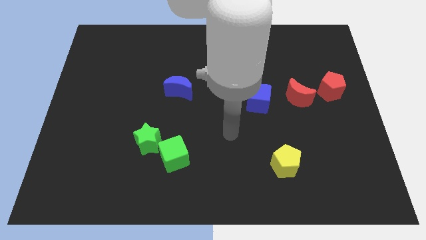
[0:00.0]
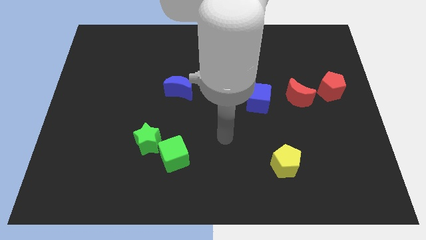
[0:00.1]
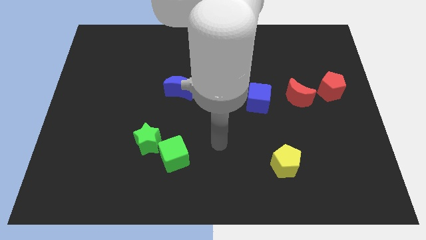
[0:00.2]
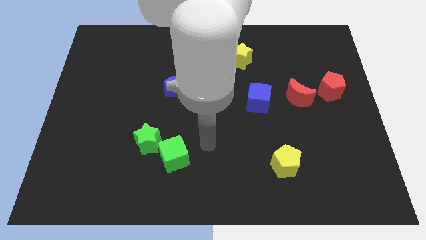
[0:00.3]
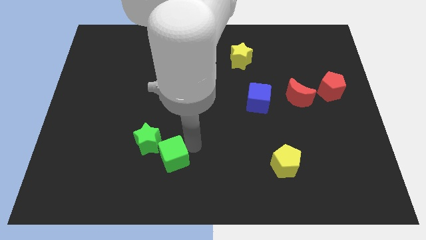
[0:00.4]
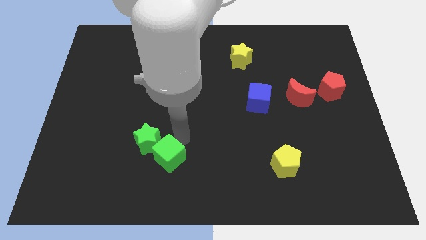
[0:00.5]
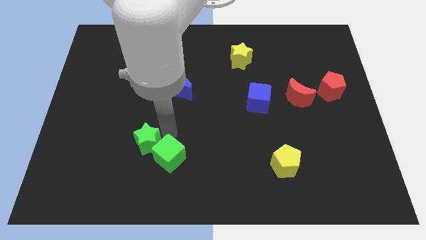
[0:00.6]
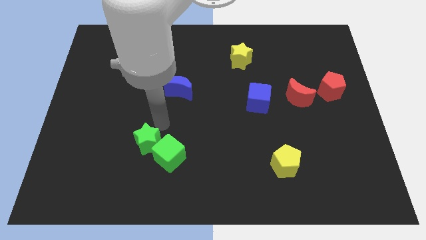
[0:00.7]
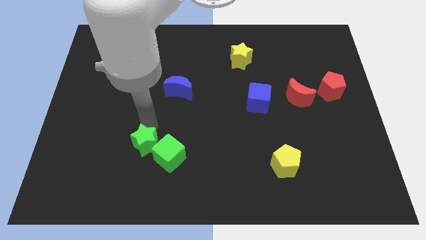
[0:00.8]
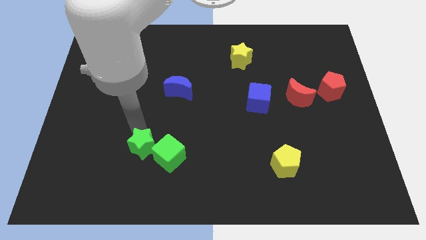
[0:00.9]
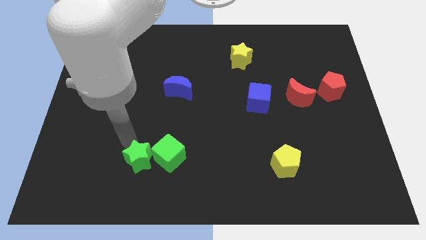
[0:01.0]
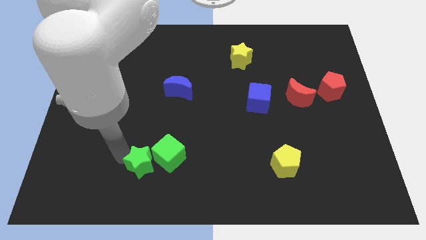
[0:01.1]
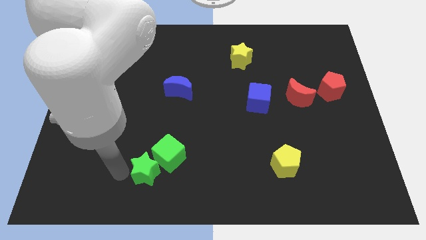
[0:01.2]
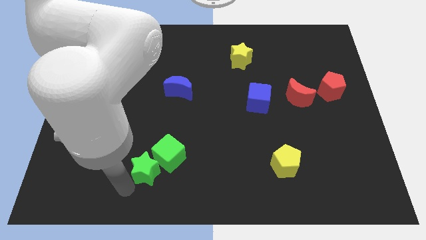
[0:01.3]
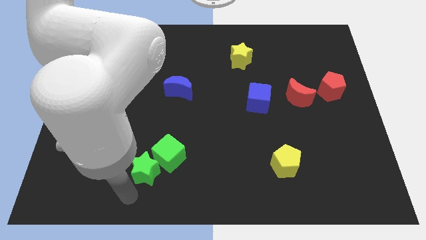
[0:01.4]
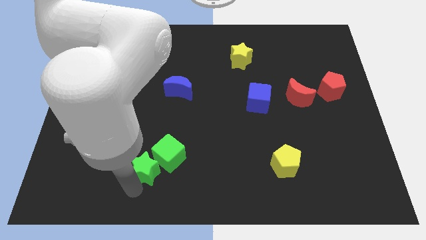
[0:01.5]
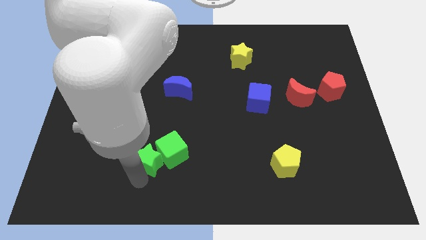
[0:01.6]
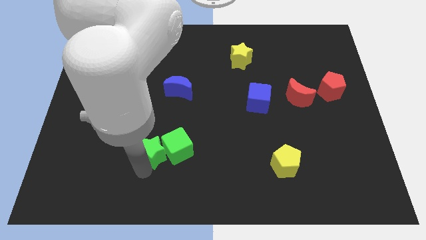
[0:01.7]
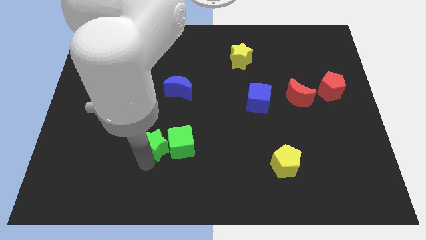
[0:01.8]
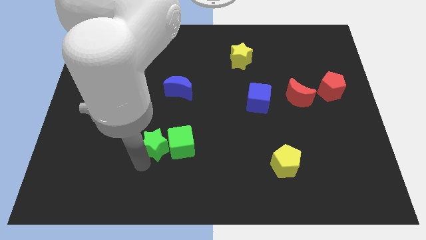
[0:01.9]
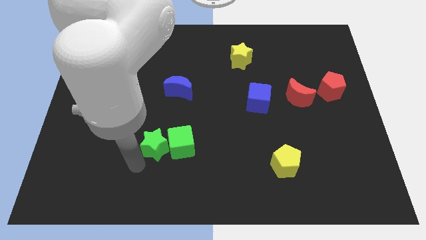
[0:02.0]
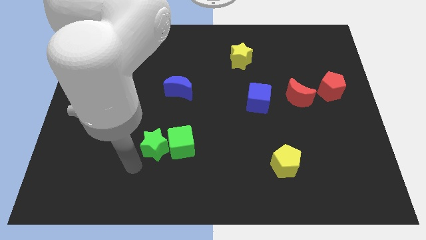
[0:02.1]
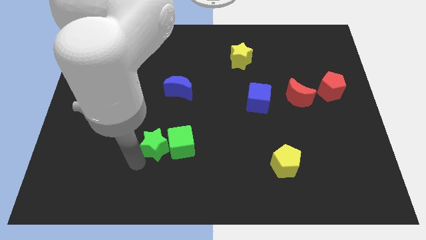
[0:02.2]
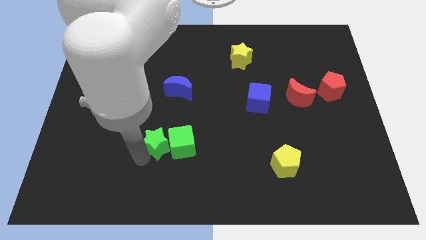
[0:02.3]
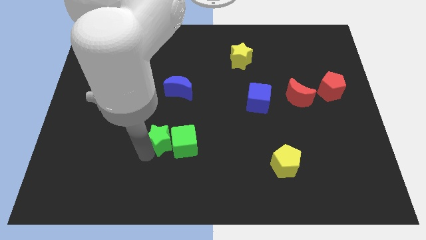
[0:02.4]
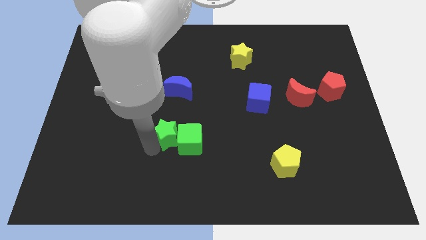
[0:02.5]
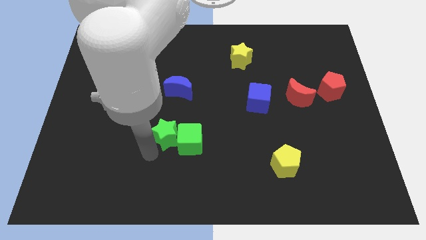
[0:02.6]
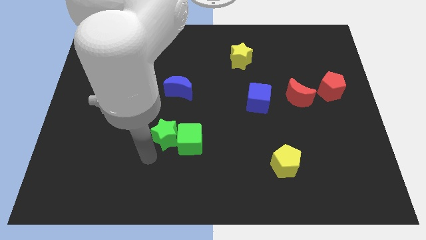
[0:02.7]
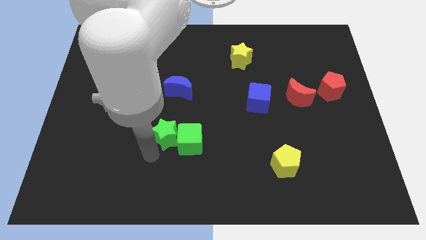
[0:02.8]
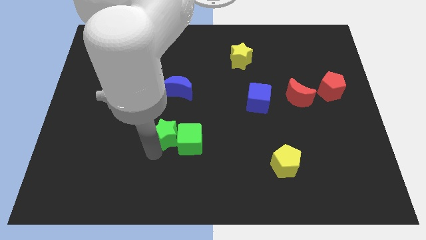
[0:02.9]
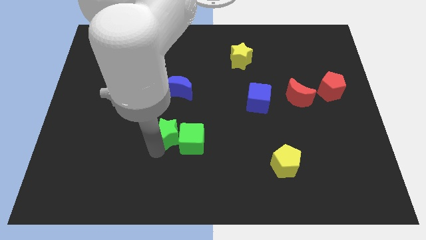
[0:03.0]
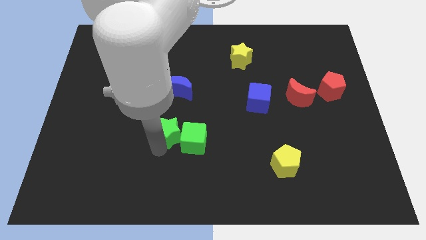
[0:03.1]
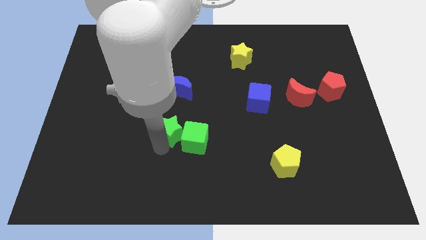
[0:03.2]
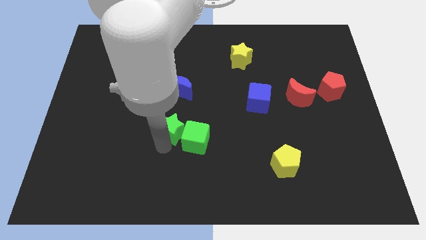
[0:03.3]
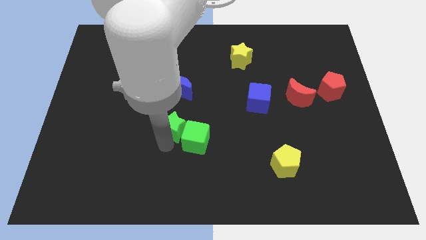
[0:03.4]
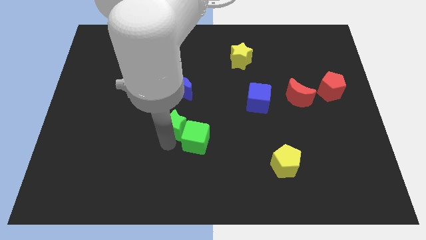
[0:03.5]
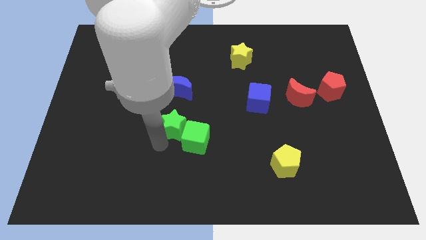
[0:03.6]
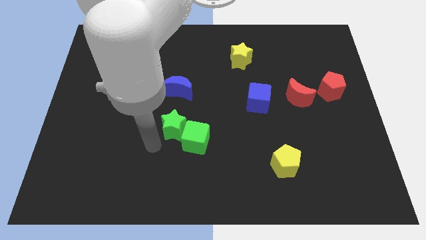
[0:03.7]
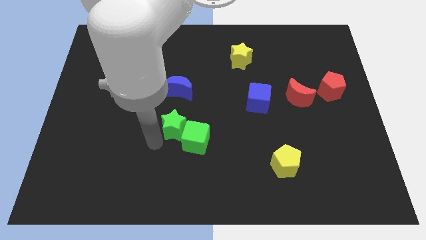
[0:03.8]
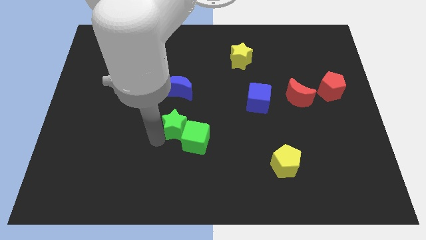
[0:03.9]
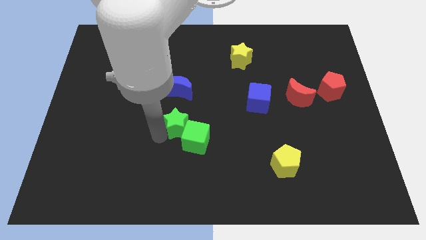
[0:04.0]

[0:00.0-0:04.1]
slide the green star a little bit diagonally upwards and to the right

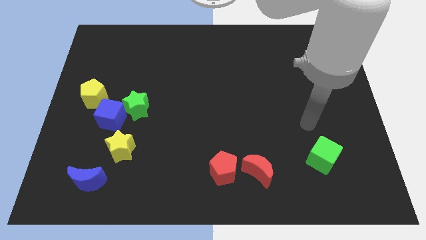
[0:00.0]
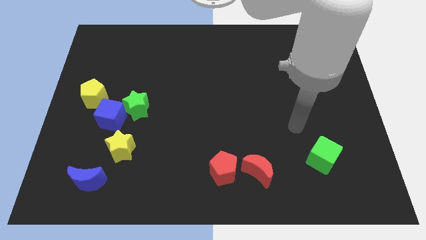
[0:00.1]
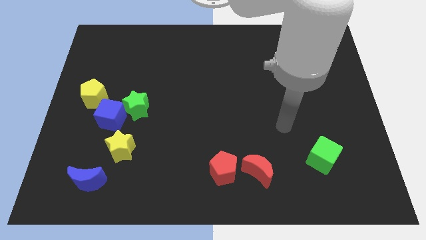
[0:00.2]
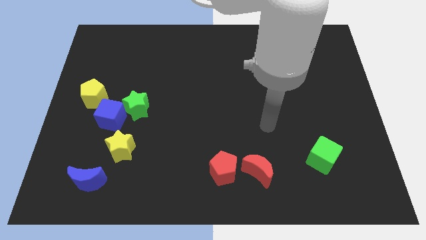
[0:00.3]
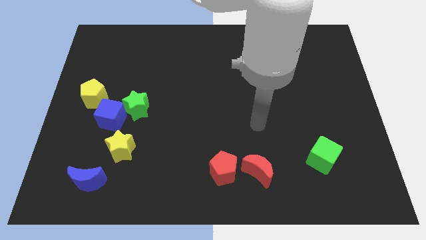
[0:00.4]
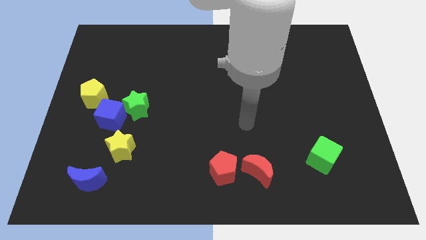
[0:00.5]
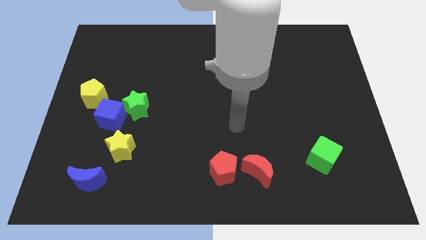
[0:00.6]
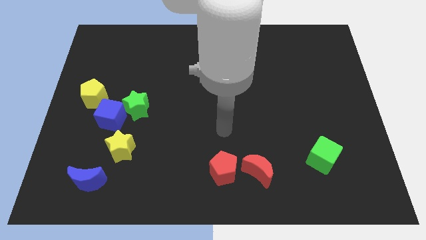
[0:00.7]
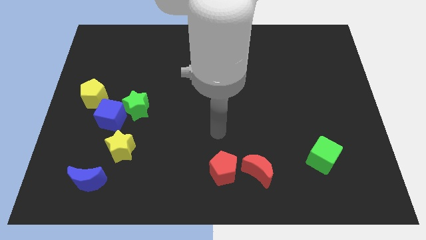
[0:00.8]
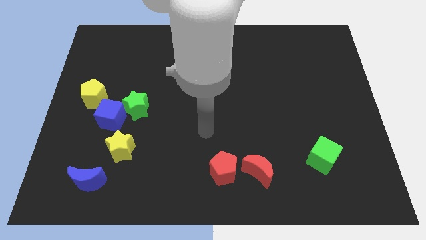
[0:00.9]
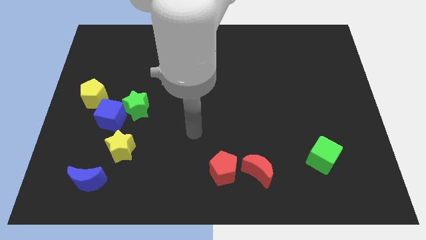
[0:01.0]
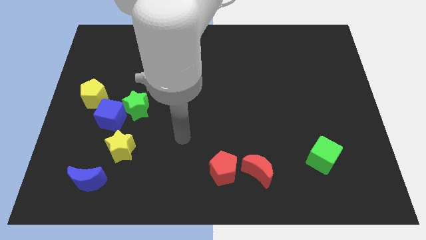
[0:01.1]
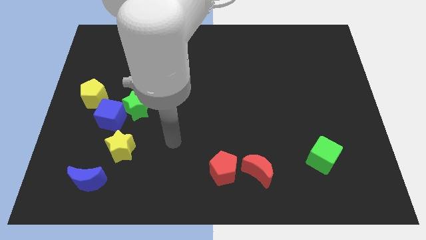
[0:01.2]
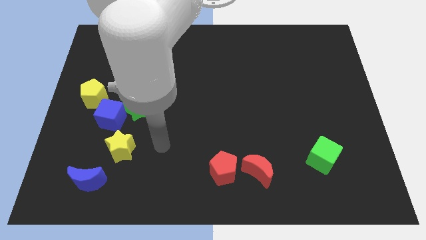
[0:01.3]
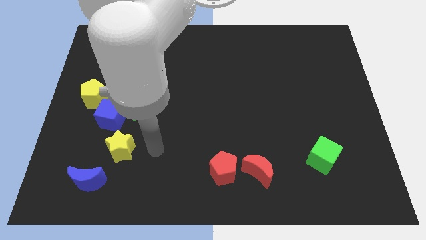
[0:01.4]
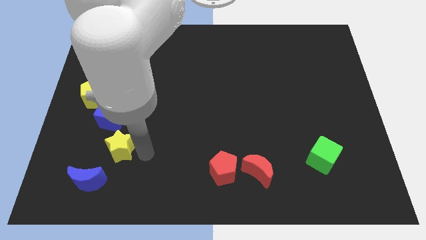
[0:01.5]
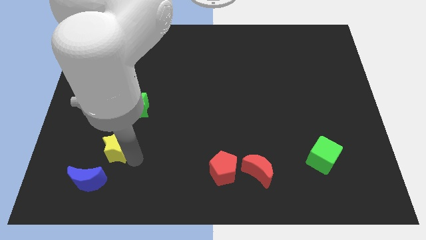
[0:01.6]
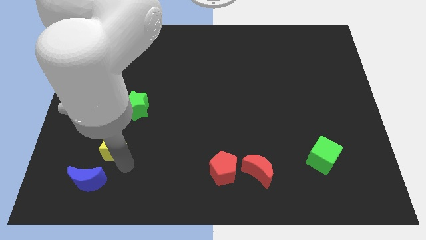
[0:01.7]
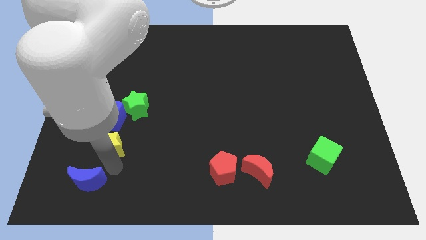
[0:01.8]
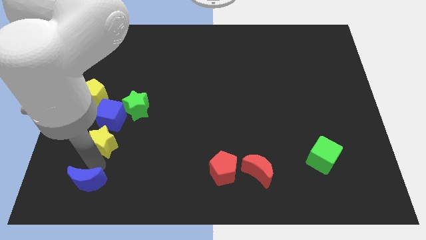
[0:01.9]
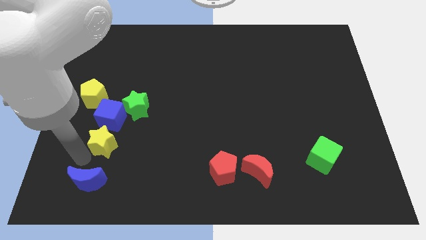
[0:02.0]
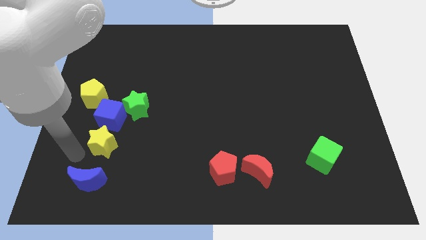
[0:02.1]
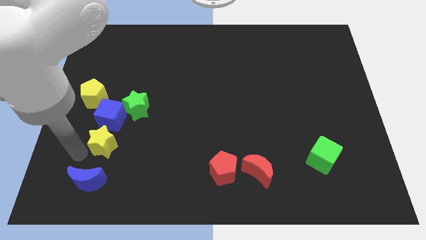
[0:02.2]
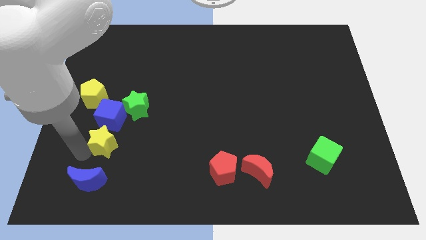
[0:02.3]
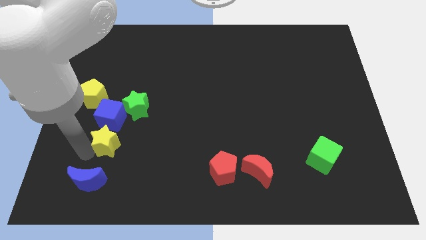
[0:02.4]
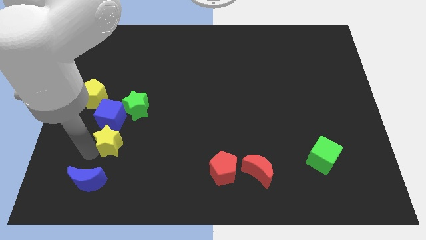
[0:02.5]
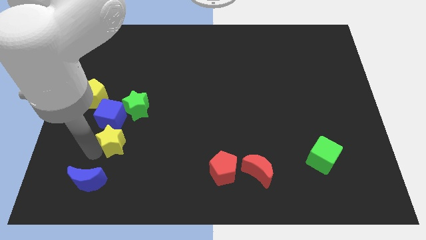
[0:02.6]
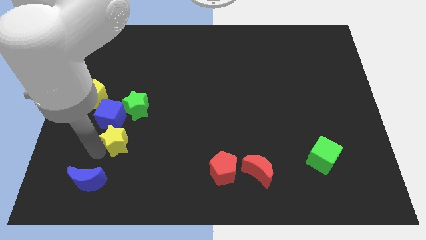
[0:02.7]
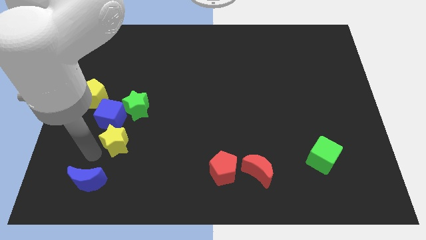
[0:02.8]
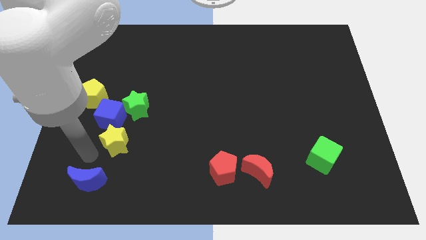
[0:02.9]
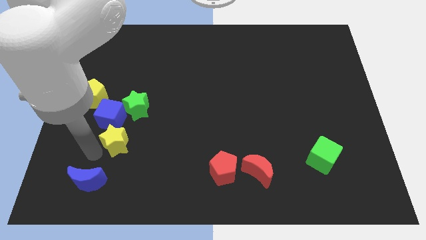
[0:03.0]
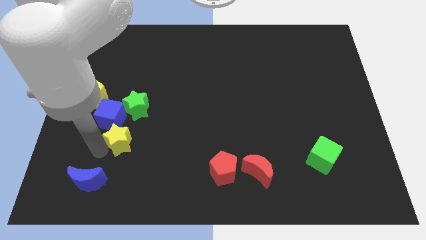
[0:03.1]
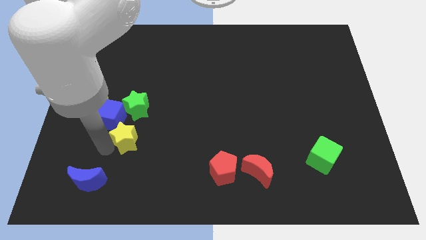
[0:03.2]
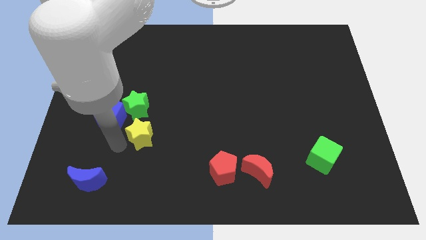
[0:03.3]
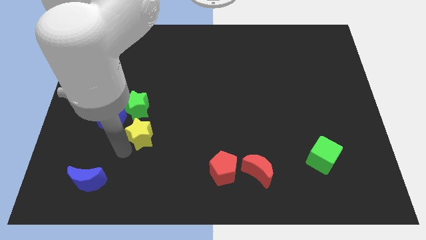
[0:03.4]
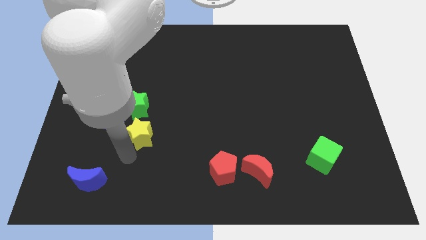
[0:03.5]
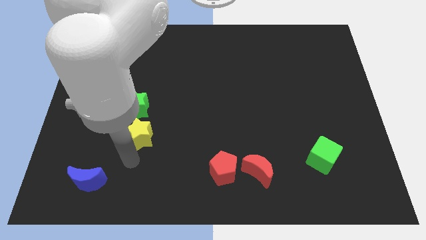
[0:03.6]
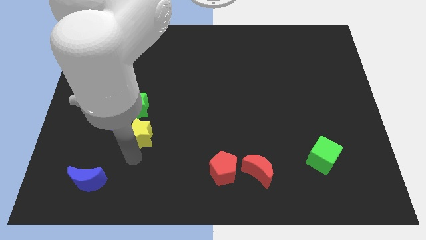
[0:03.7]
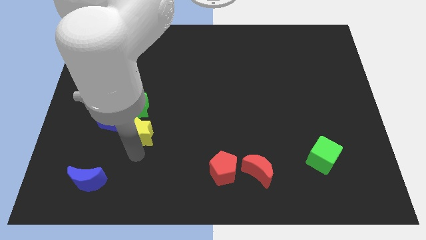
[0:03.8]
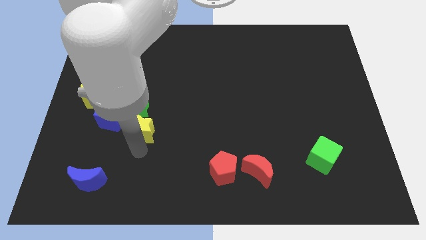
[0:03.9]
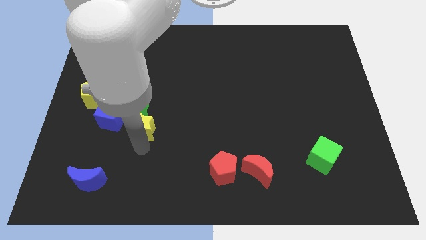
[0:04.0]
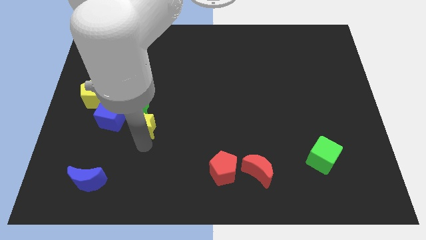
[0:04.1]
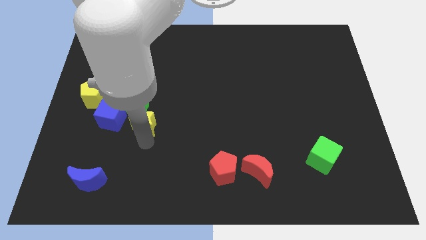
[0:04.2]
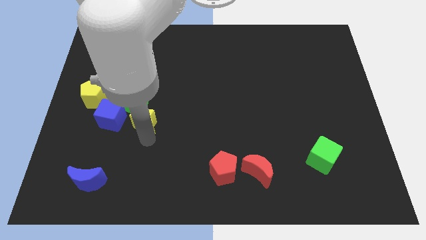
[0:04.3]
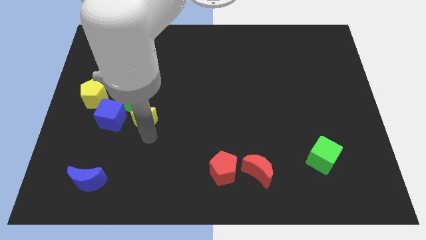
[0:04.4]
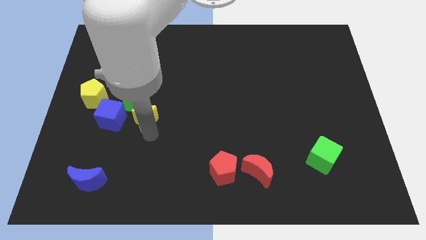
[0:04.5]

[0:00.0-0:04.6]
slightly move the yellow star up
